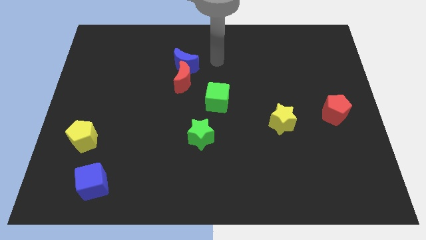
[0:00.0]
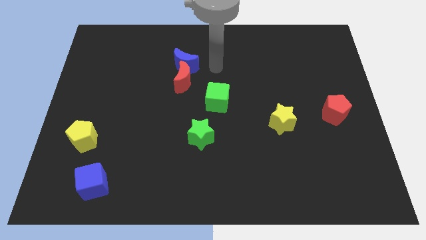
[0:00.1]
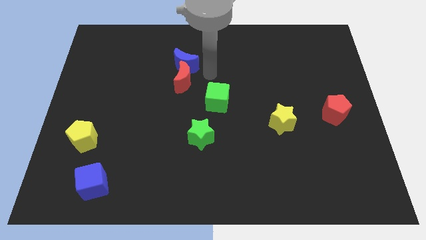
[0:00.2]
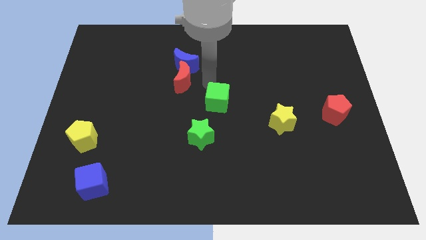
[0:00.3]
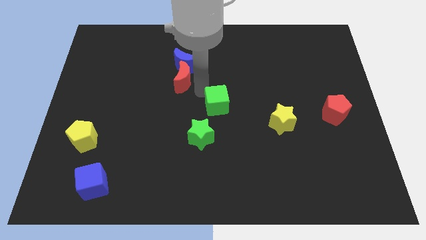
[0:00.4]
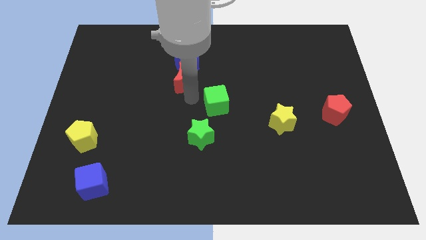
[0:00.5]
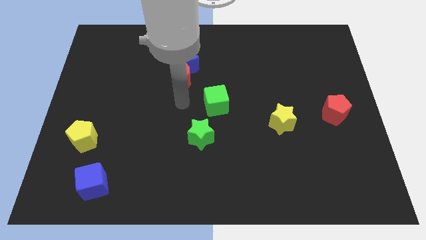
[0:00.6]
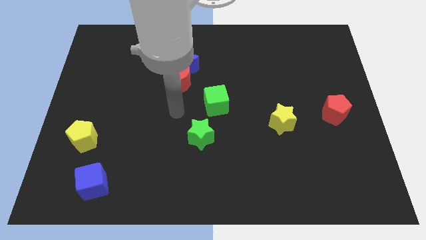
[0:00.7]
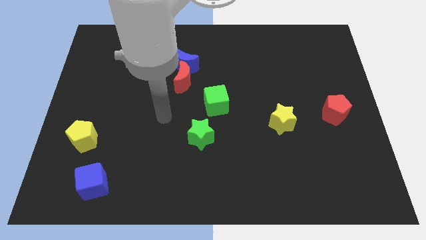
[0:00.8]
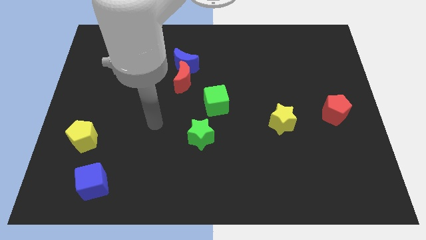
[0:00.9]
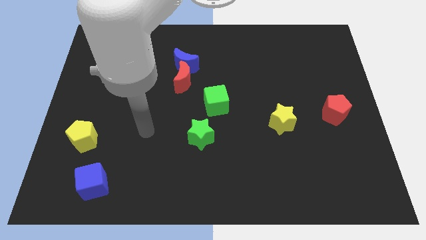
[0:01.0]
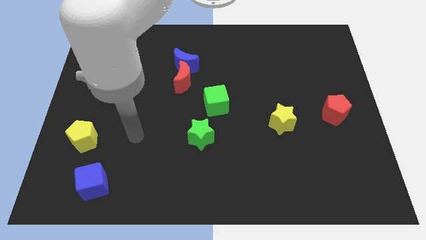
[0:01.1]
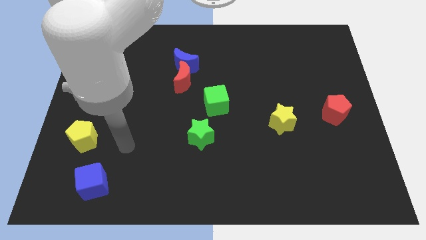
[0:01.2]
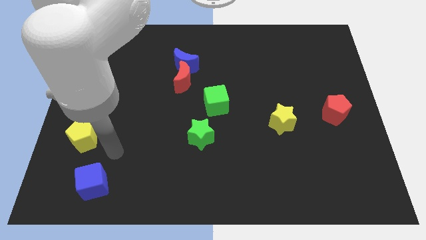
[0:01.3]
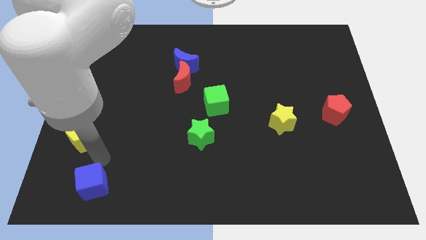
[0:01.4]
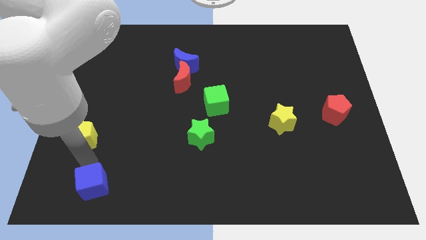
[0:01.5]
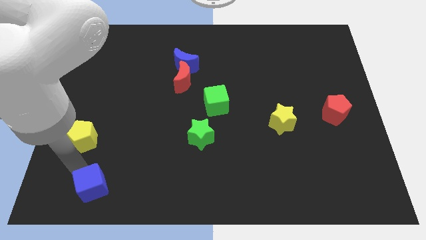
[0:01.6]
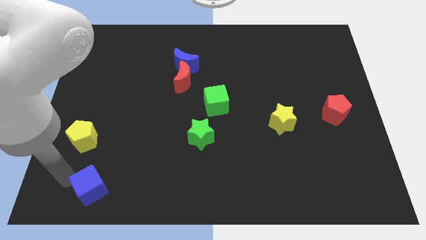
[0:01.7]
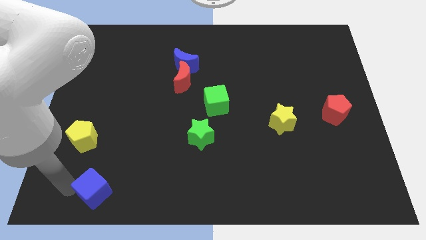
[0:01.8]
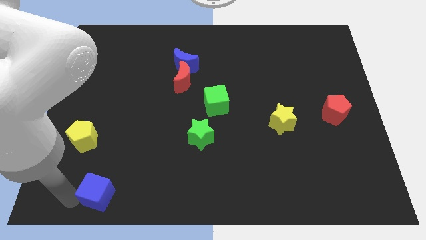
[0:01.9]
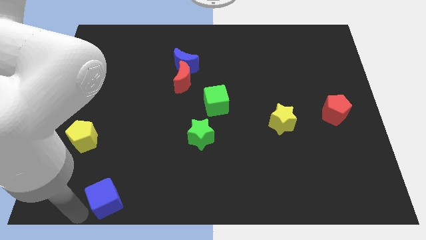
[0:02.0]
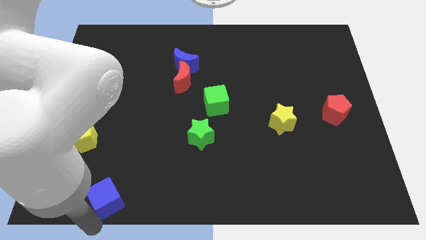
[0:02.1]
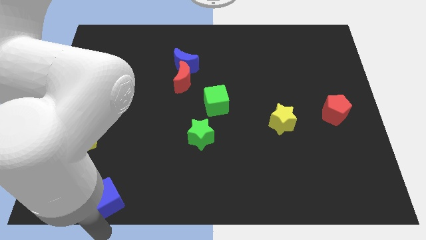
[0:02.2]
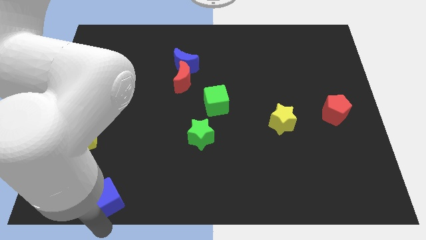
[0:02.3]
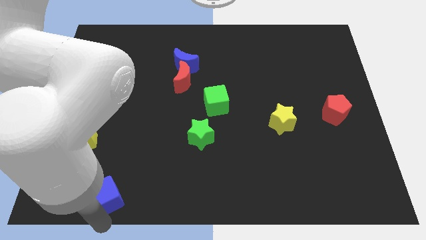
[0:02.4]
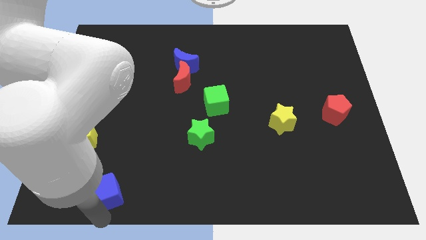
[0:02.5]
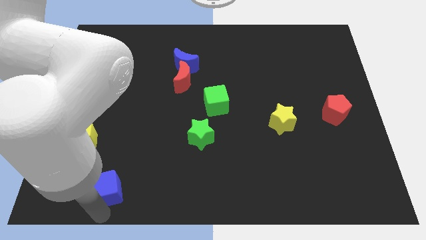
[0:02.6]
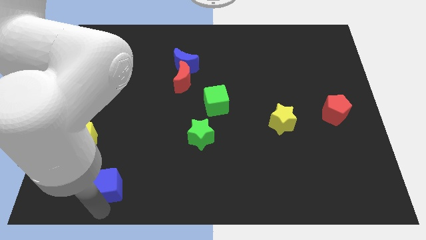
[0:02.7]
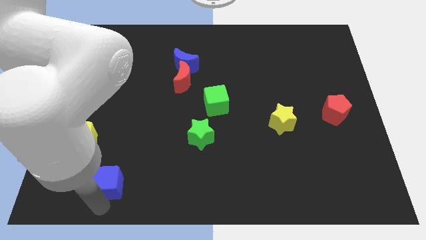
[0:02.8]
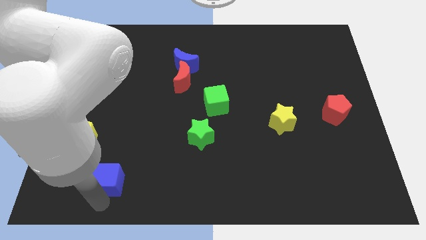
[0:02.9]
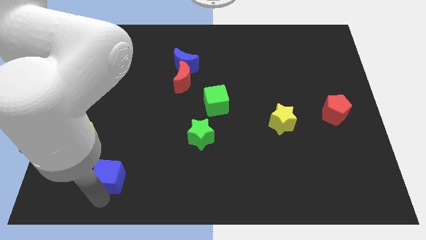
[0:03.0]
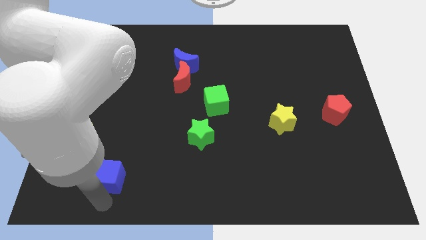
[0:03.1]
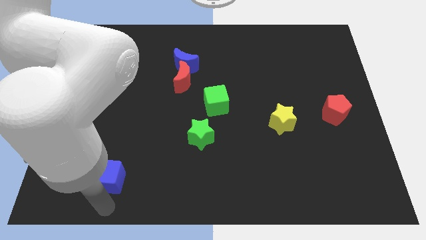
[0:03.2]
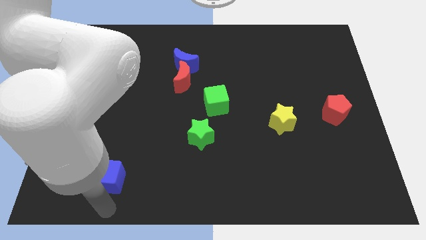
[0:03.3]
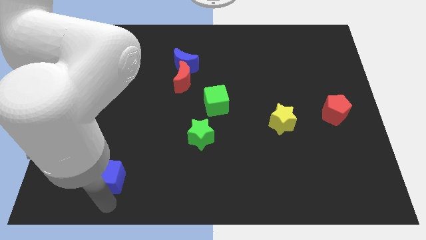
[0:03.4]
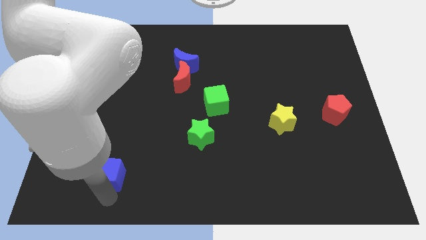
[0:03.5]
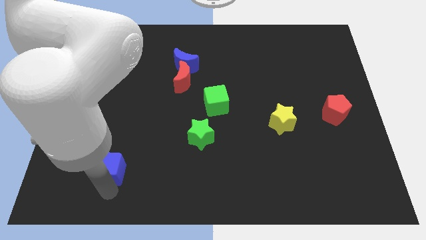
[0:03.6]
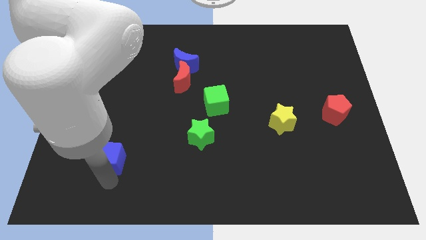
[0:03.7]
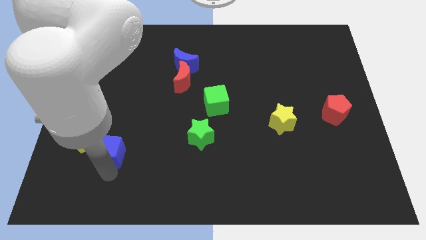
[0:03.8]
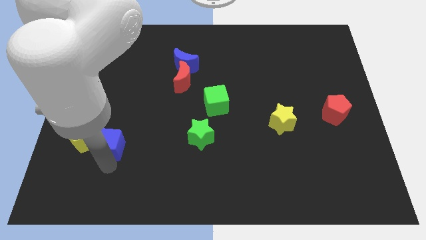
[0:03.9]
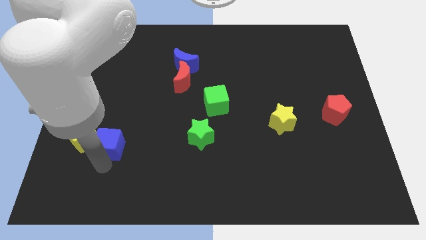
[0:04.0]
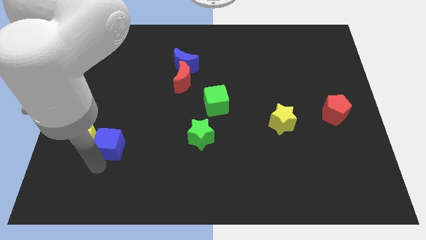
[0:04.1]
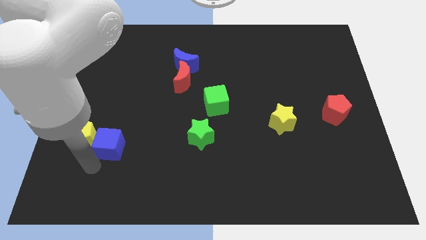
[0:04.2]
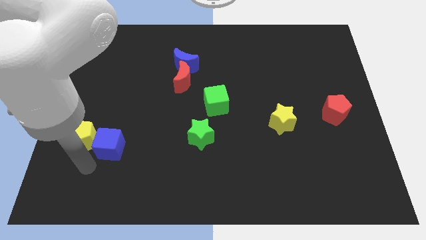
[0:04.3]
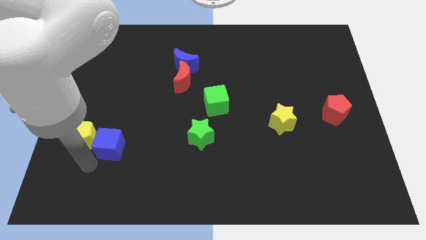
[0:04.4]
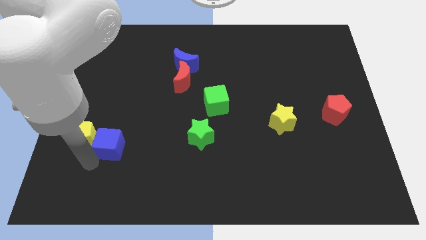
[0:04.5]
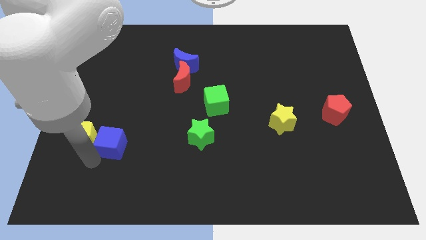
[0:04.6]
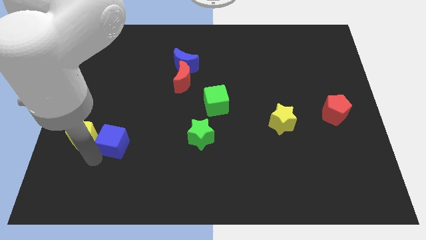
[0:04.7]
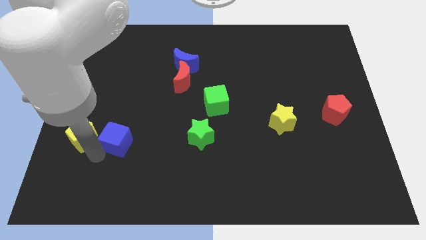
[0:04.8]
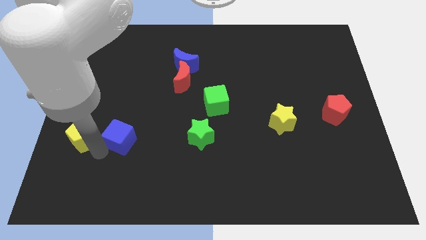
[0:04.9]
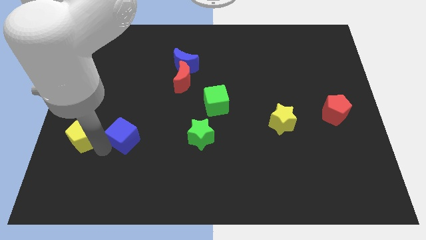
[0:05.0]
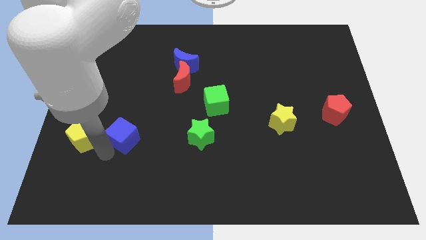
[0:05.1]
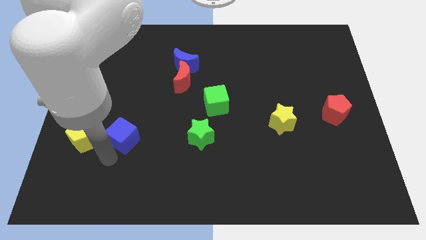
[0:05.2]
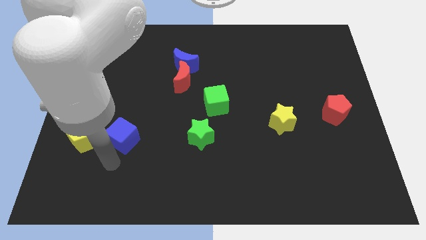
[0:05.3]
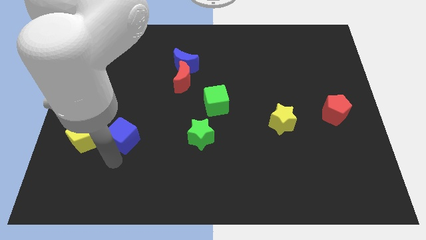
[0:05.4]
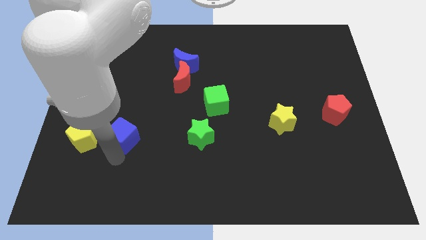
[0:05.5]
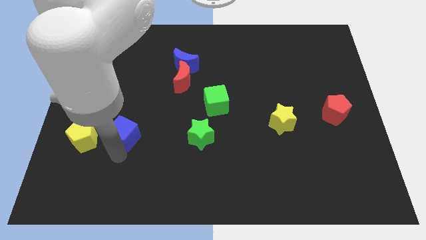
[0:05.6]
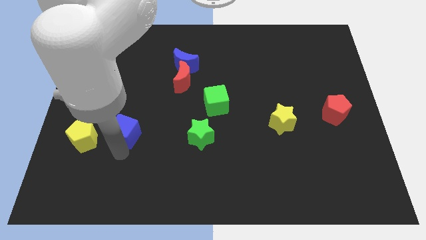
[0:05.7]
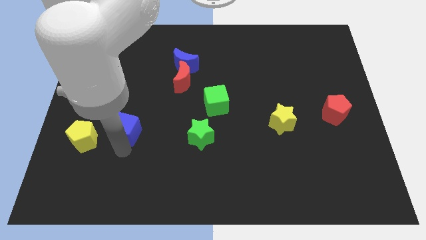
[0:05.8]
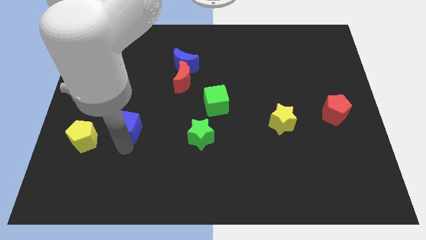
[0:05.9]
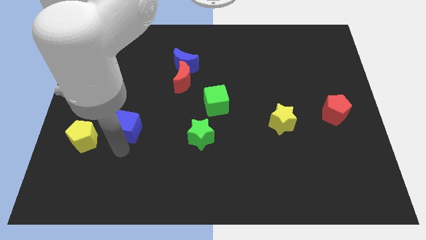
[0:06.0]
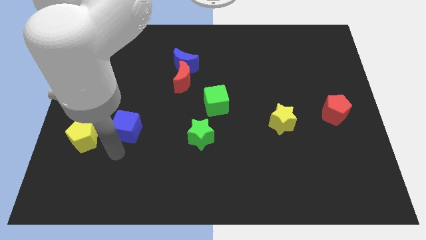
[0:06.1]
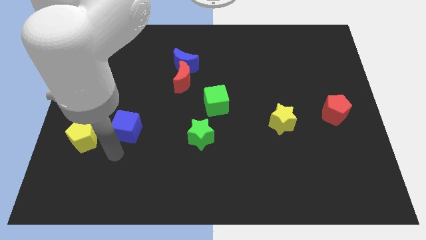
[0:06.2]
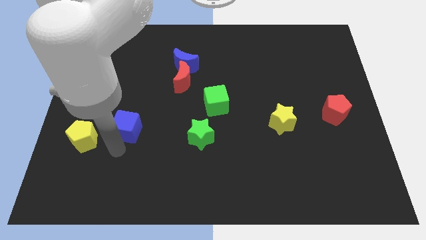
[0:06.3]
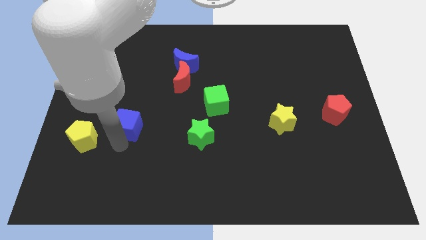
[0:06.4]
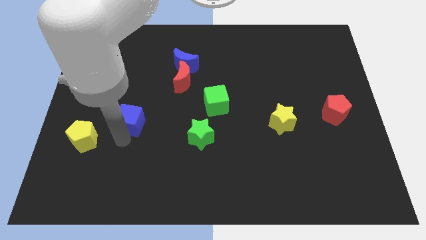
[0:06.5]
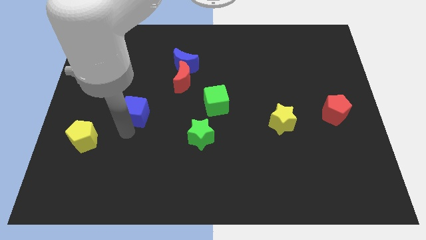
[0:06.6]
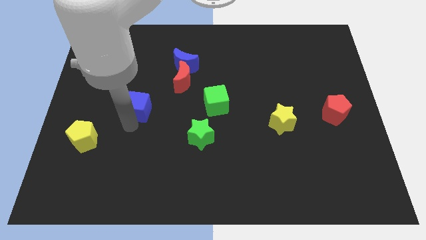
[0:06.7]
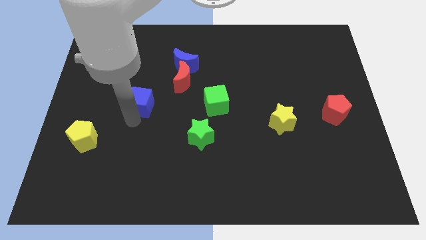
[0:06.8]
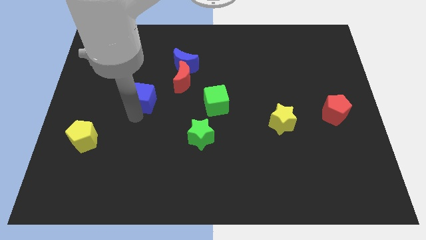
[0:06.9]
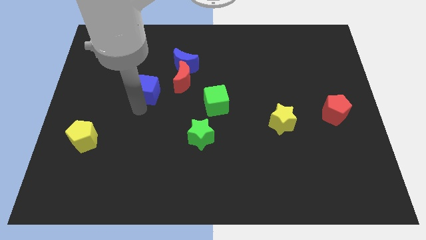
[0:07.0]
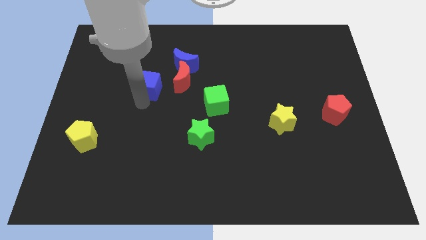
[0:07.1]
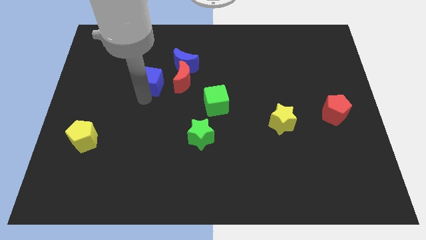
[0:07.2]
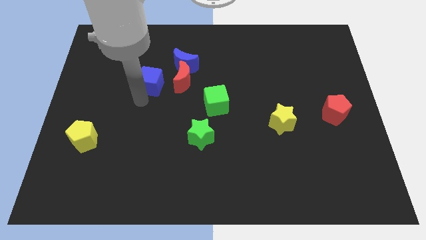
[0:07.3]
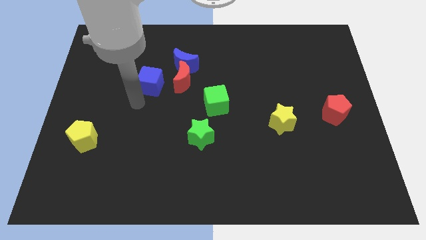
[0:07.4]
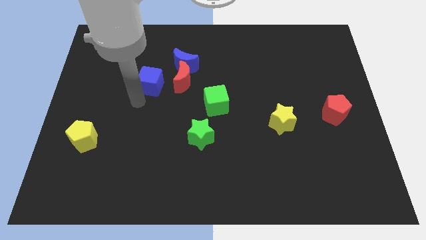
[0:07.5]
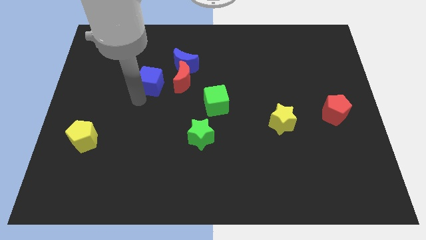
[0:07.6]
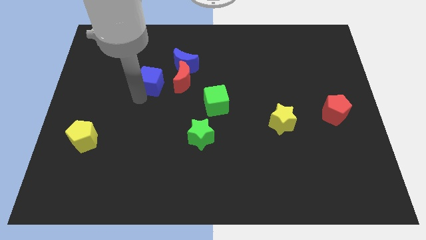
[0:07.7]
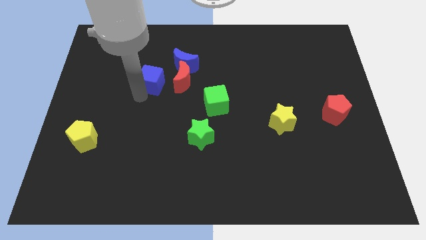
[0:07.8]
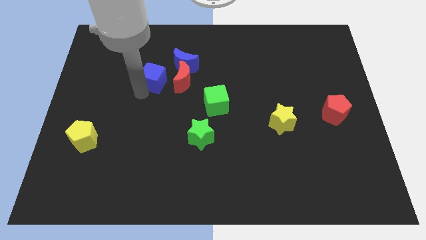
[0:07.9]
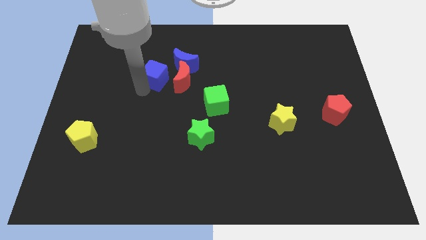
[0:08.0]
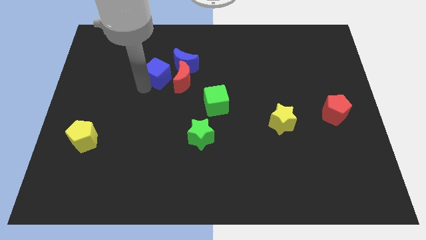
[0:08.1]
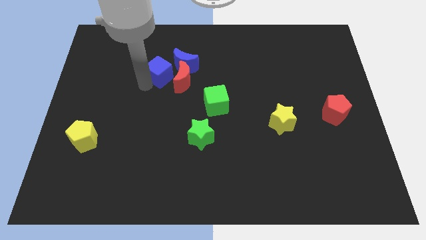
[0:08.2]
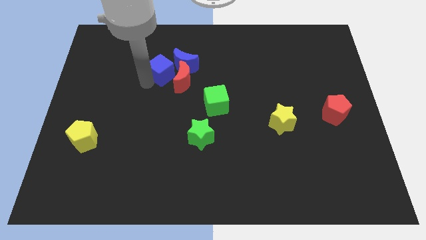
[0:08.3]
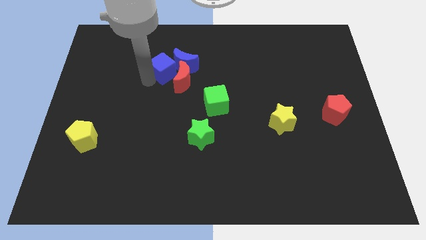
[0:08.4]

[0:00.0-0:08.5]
move the blue cube close to the blue moon
